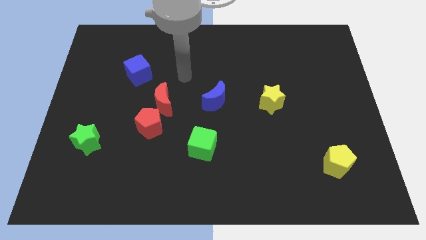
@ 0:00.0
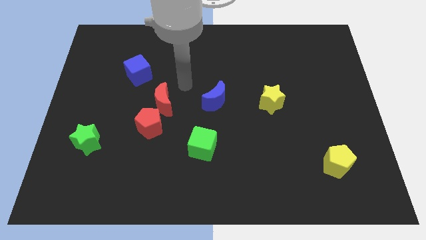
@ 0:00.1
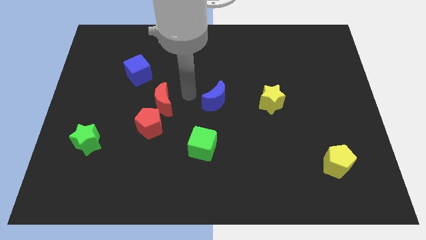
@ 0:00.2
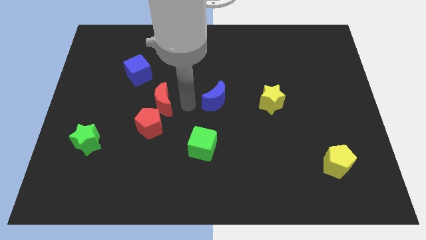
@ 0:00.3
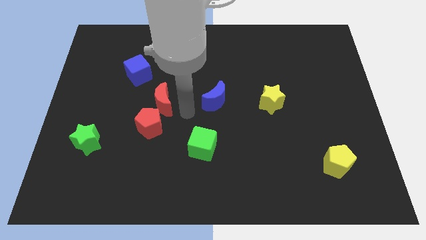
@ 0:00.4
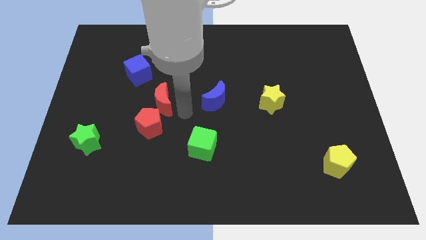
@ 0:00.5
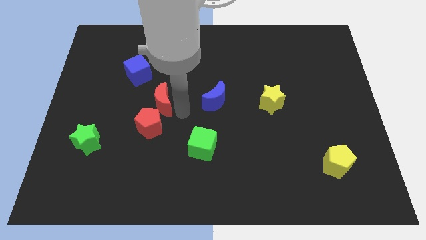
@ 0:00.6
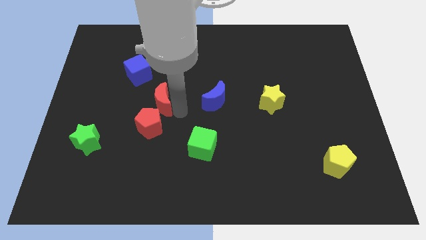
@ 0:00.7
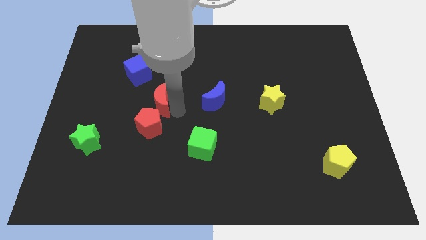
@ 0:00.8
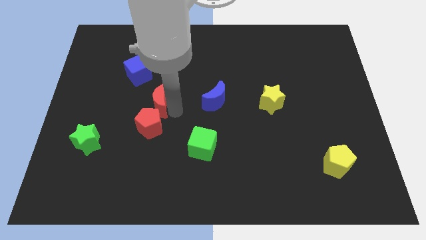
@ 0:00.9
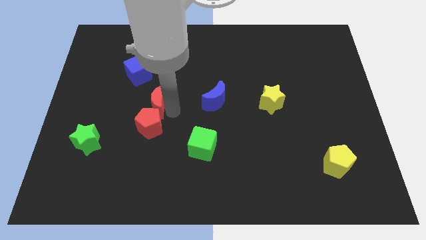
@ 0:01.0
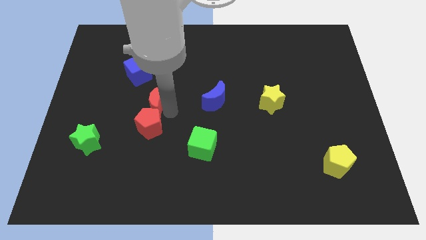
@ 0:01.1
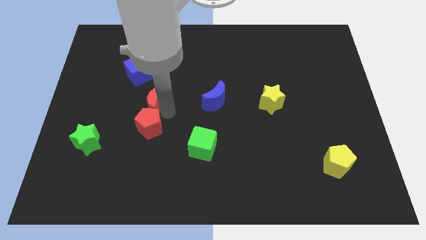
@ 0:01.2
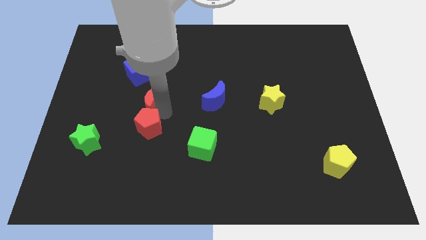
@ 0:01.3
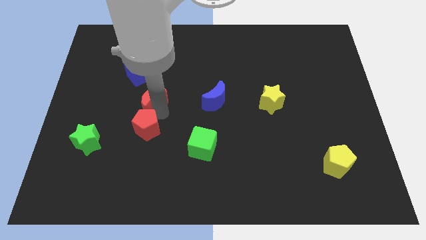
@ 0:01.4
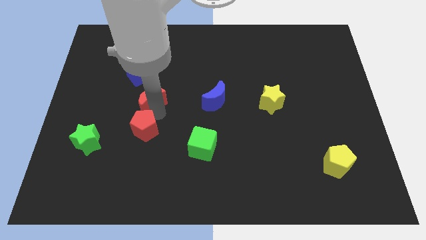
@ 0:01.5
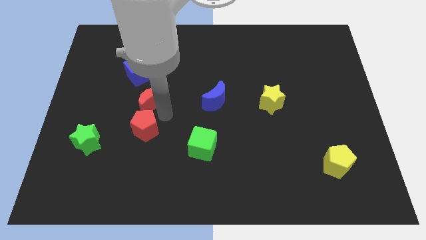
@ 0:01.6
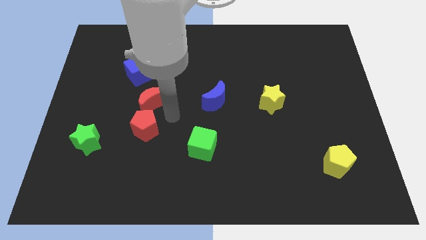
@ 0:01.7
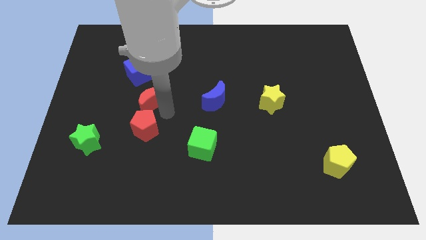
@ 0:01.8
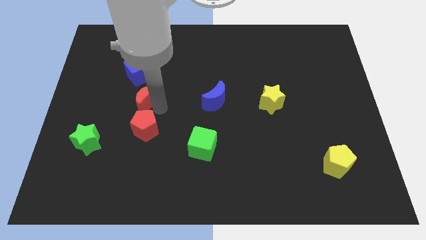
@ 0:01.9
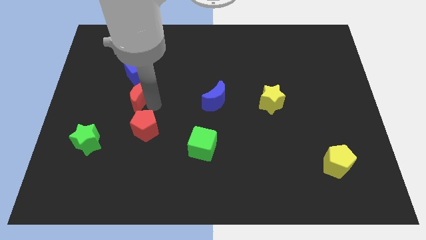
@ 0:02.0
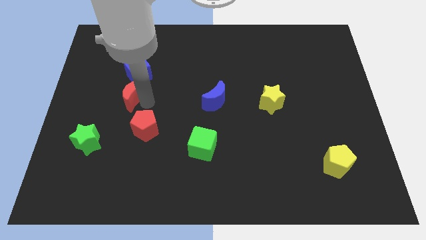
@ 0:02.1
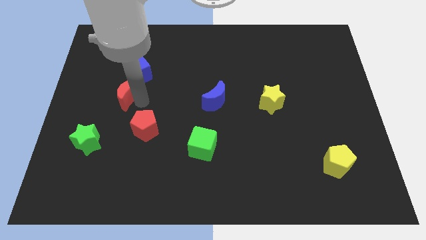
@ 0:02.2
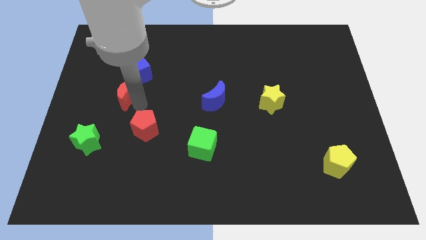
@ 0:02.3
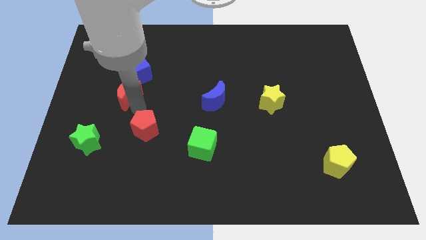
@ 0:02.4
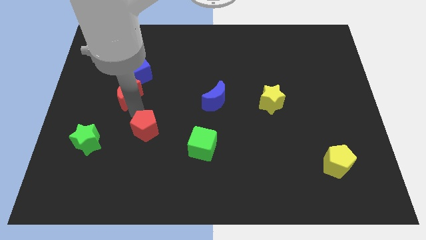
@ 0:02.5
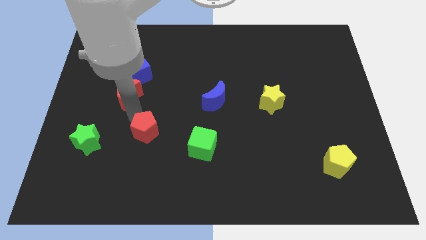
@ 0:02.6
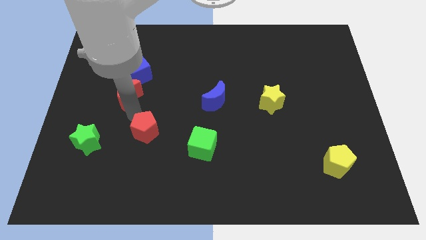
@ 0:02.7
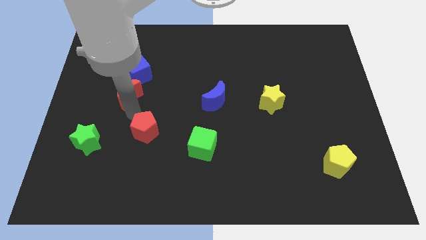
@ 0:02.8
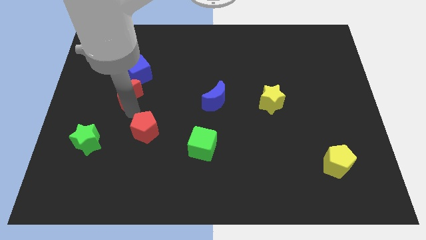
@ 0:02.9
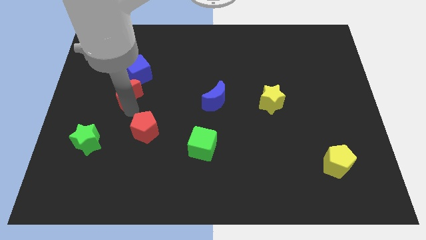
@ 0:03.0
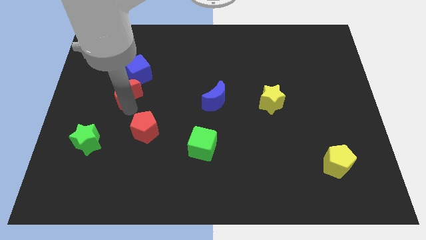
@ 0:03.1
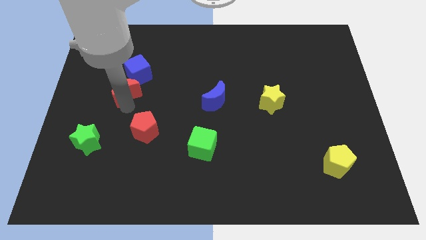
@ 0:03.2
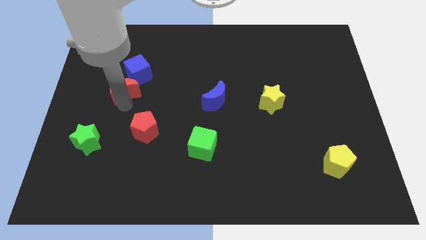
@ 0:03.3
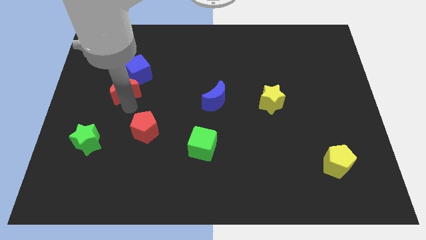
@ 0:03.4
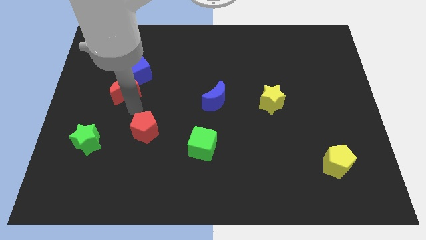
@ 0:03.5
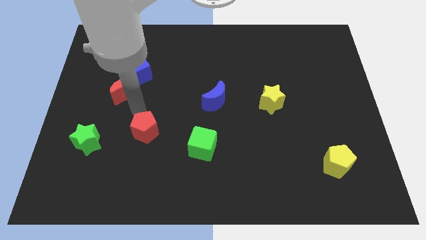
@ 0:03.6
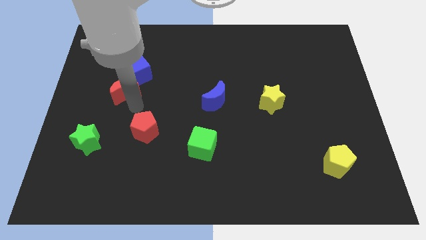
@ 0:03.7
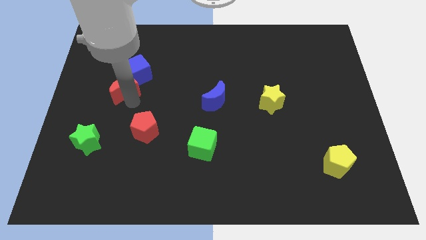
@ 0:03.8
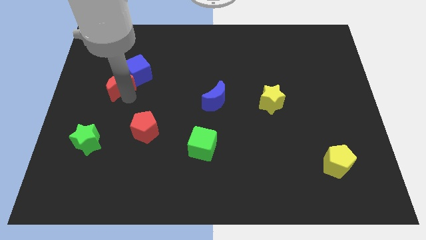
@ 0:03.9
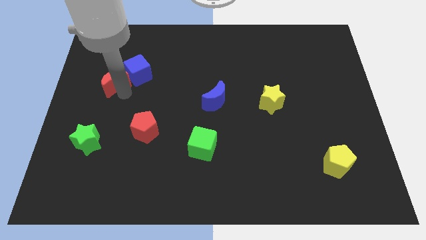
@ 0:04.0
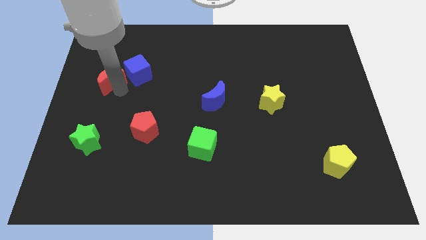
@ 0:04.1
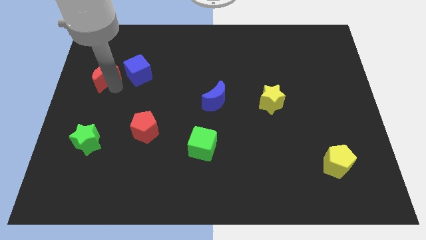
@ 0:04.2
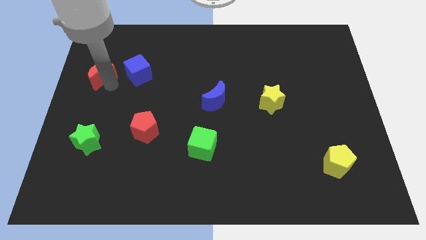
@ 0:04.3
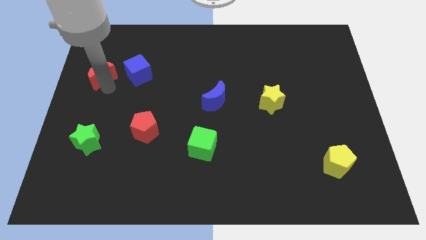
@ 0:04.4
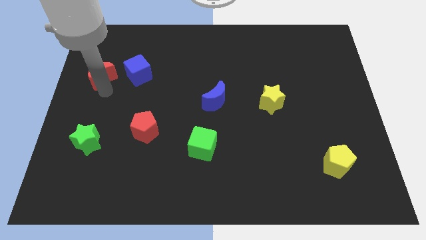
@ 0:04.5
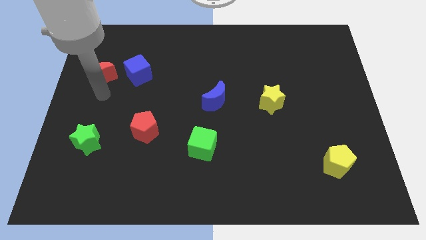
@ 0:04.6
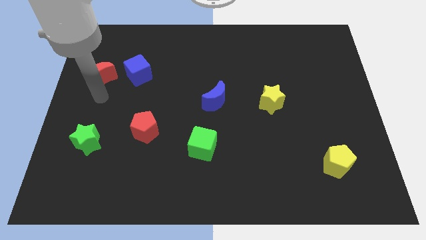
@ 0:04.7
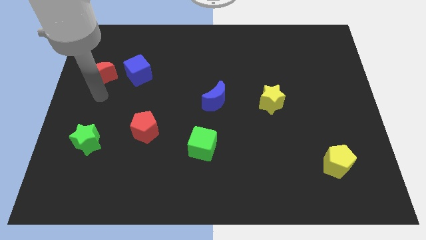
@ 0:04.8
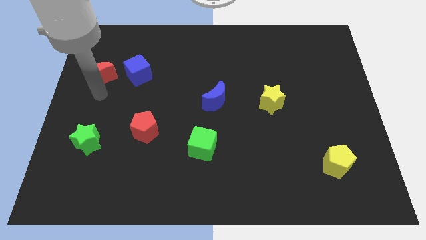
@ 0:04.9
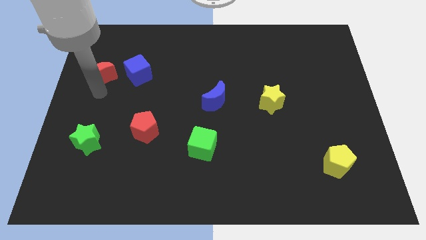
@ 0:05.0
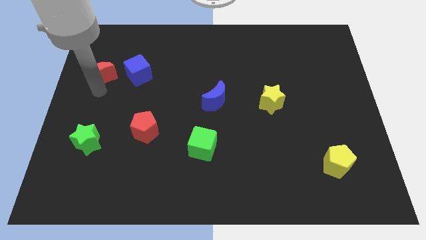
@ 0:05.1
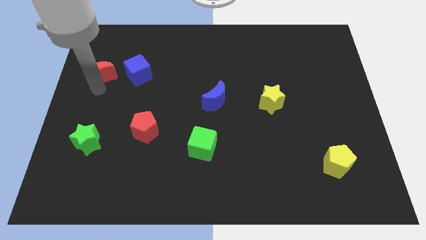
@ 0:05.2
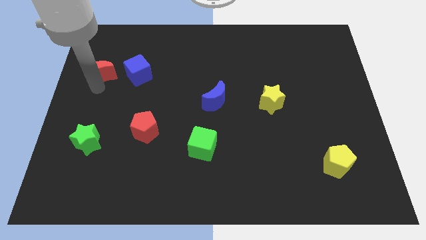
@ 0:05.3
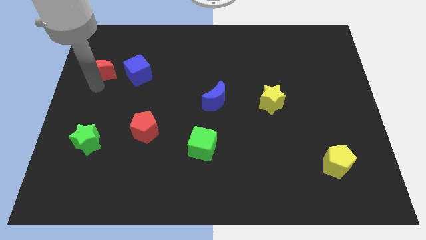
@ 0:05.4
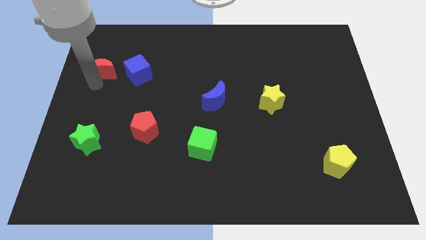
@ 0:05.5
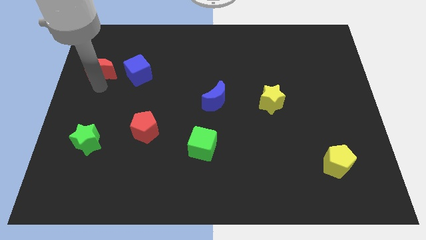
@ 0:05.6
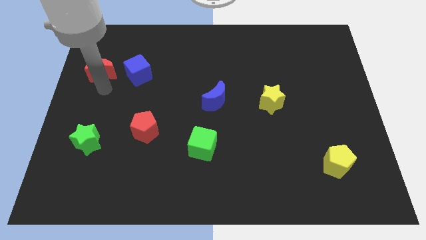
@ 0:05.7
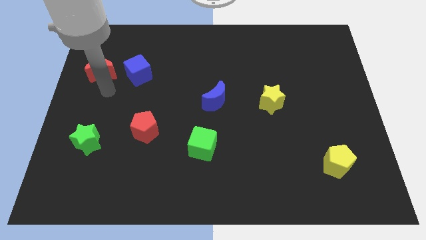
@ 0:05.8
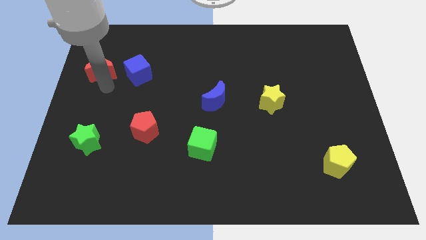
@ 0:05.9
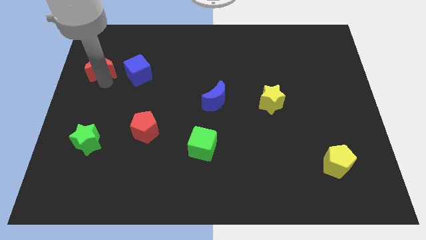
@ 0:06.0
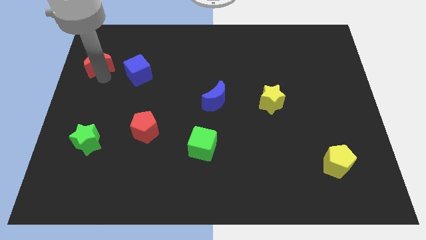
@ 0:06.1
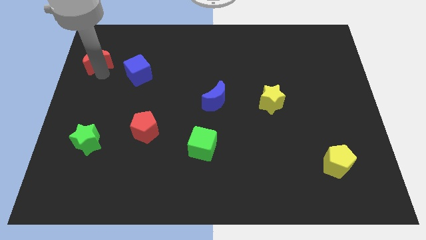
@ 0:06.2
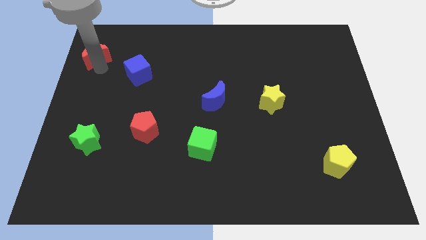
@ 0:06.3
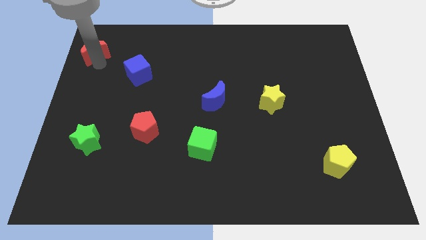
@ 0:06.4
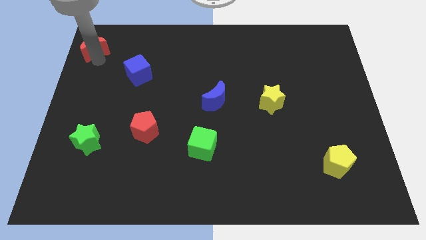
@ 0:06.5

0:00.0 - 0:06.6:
slide the red moon to the top left corner

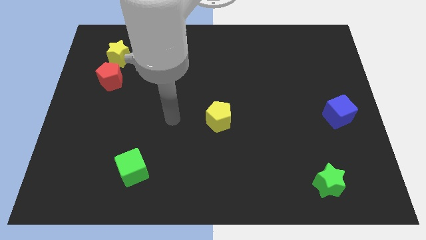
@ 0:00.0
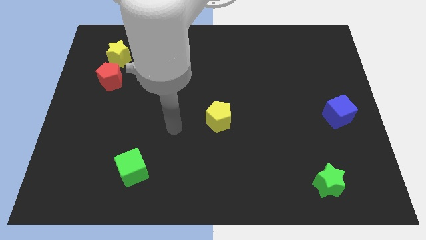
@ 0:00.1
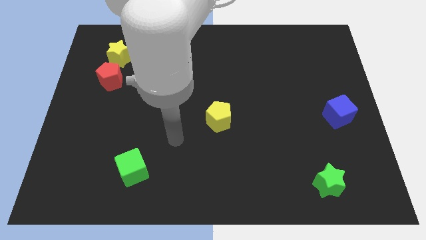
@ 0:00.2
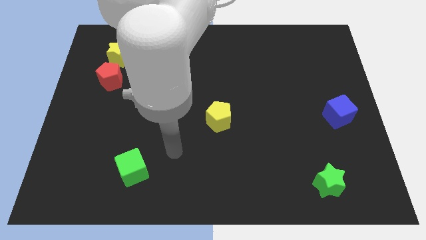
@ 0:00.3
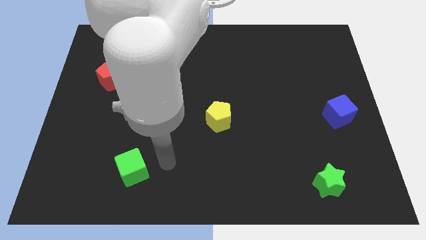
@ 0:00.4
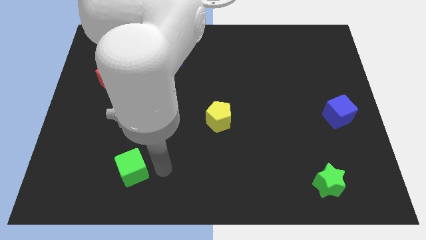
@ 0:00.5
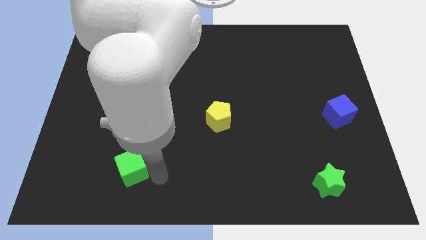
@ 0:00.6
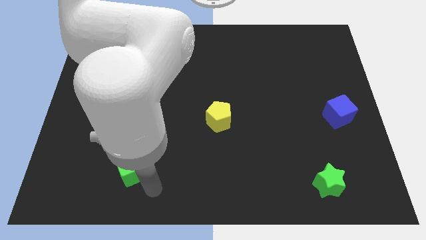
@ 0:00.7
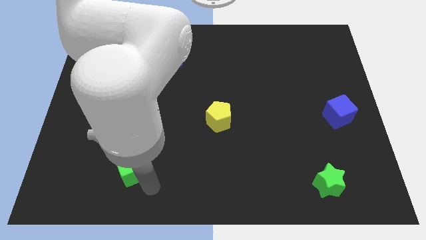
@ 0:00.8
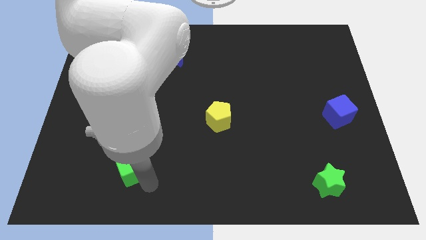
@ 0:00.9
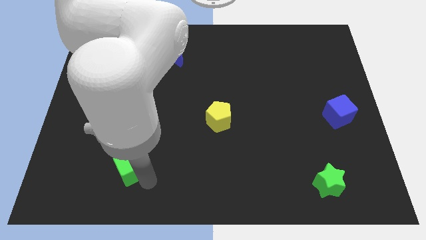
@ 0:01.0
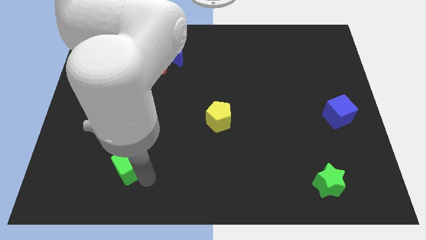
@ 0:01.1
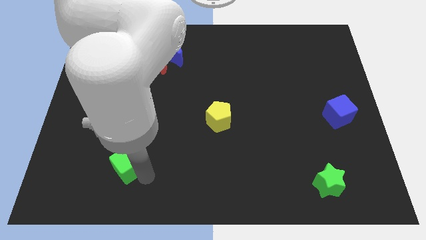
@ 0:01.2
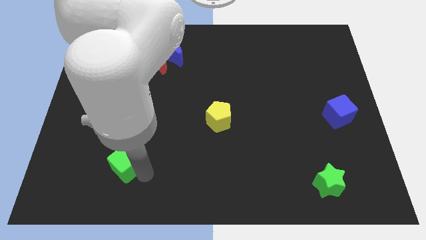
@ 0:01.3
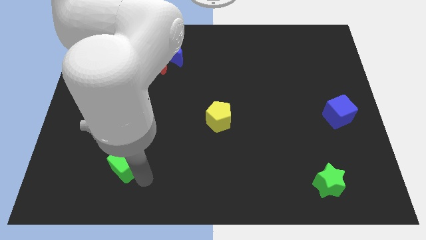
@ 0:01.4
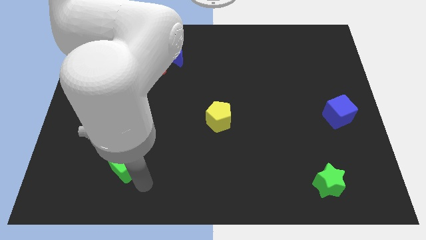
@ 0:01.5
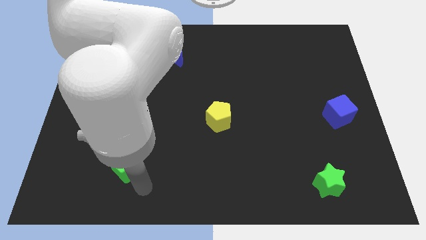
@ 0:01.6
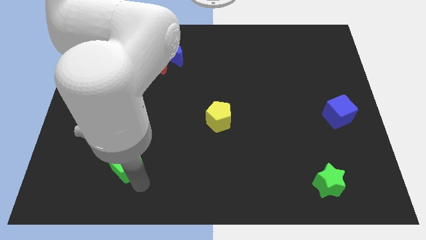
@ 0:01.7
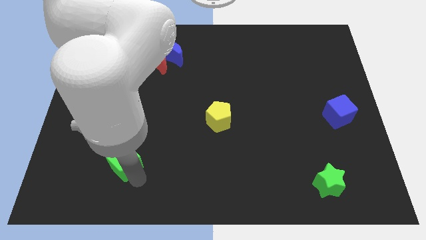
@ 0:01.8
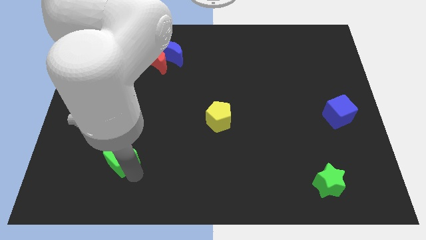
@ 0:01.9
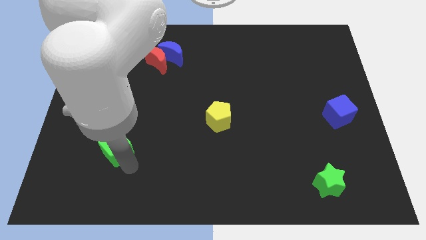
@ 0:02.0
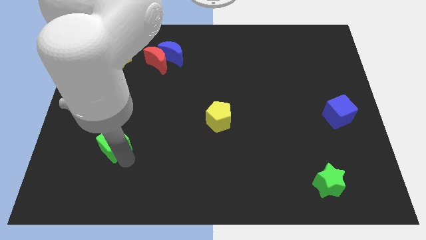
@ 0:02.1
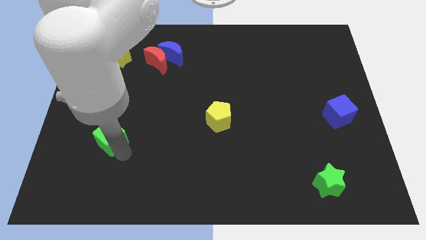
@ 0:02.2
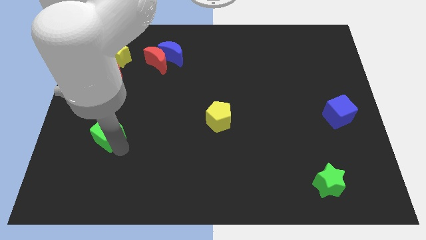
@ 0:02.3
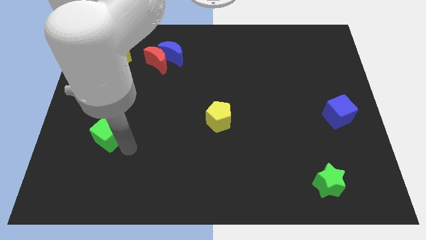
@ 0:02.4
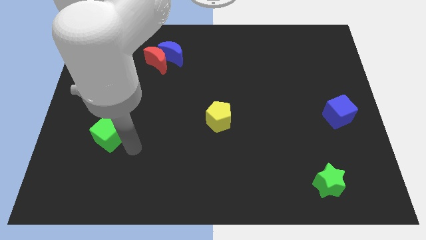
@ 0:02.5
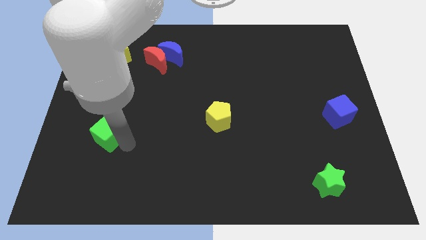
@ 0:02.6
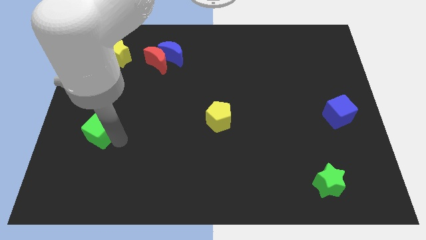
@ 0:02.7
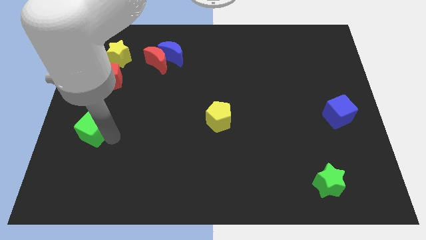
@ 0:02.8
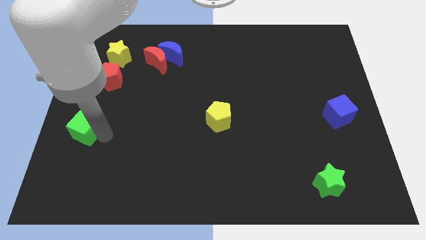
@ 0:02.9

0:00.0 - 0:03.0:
slide the green cube to the left side
